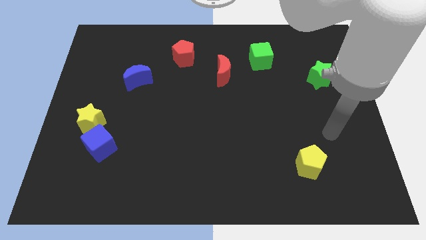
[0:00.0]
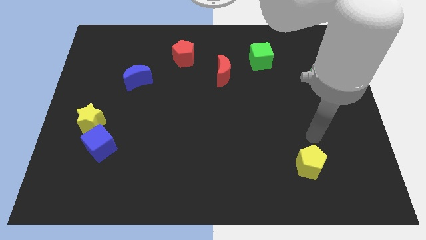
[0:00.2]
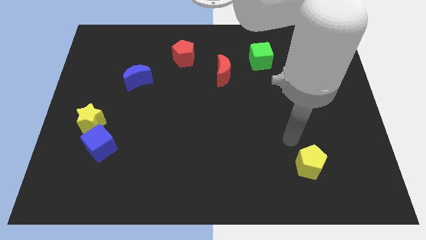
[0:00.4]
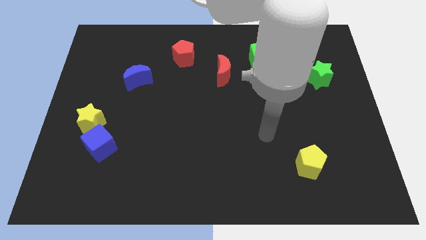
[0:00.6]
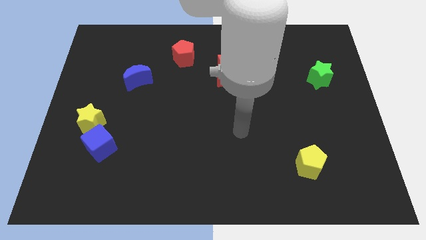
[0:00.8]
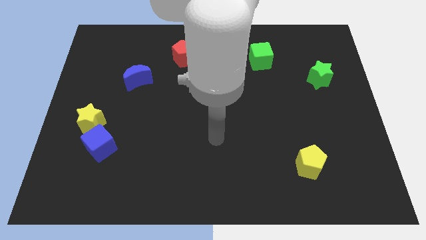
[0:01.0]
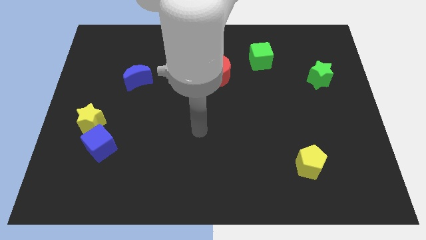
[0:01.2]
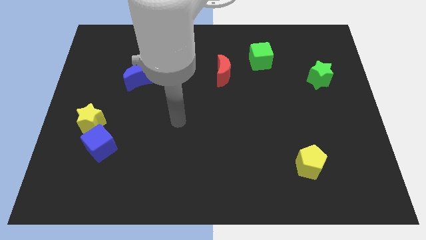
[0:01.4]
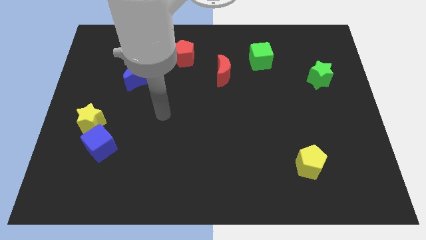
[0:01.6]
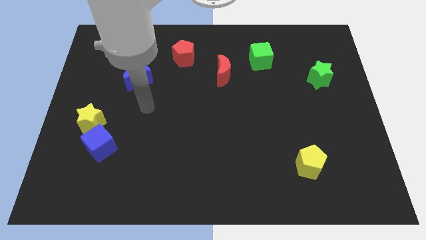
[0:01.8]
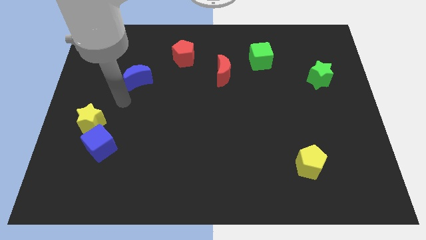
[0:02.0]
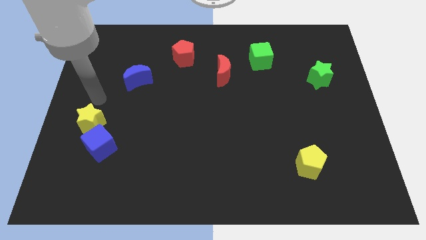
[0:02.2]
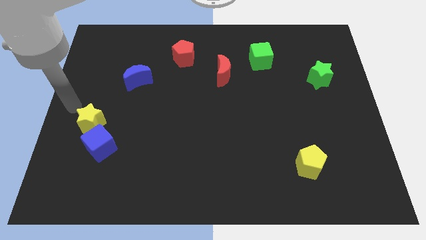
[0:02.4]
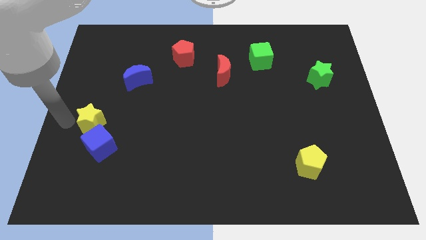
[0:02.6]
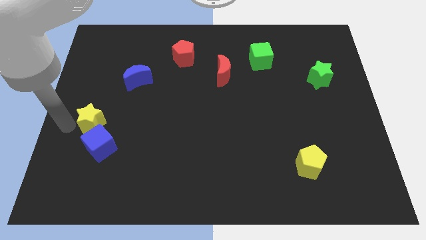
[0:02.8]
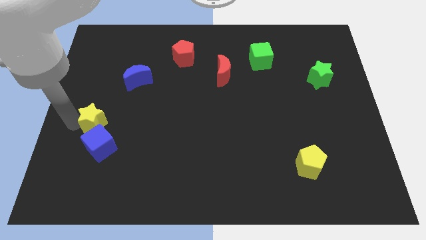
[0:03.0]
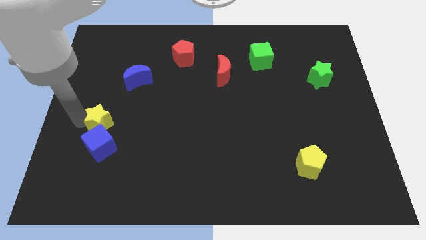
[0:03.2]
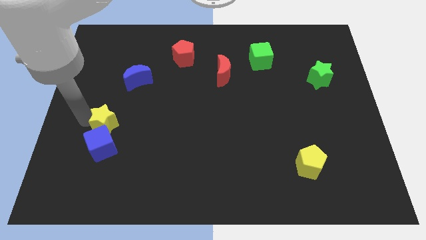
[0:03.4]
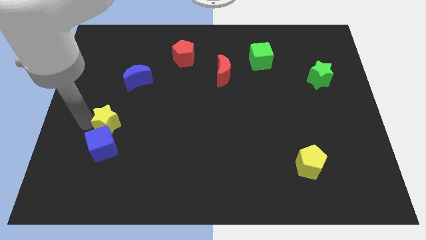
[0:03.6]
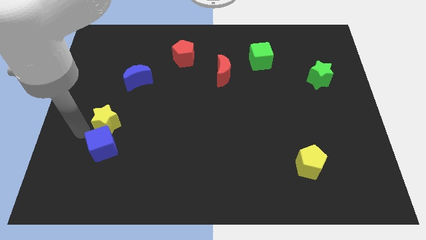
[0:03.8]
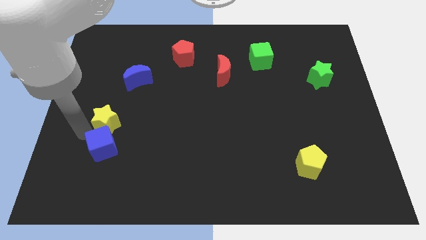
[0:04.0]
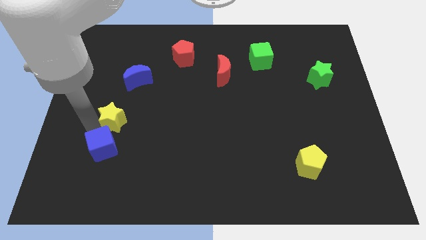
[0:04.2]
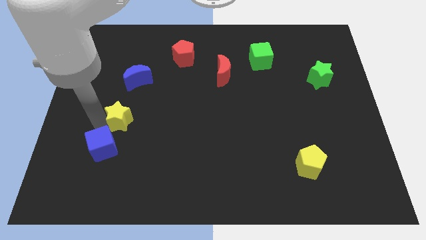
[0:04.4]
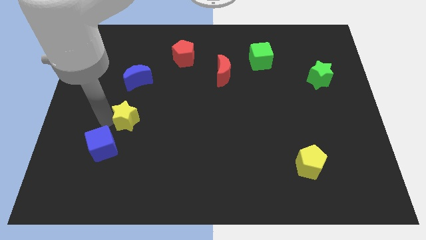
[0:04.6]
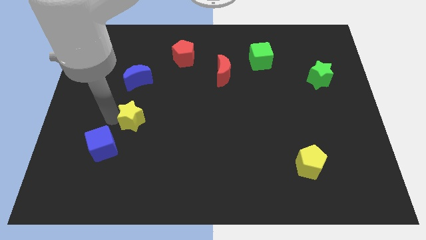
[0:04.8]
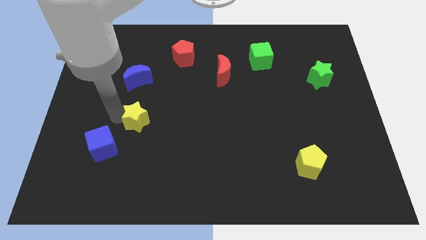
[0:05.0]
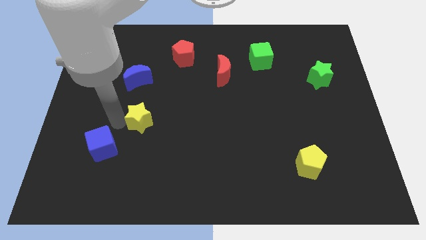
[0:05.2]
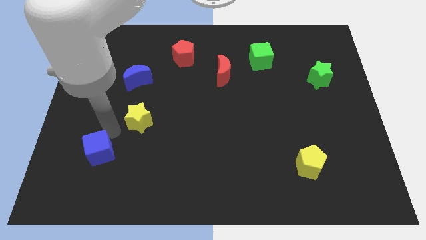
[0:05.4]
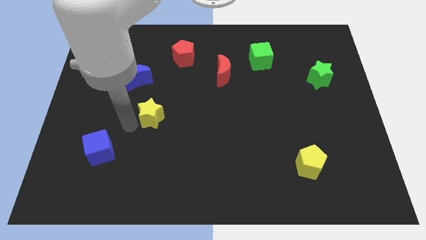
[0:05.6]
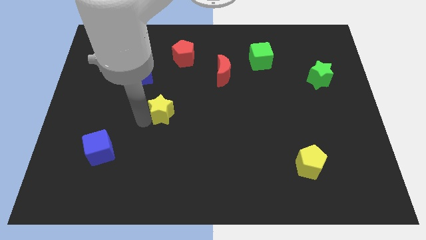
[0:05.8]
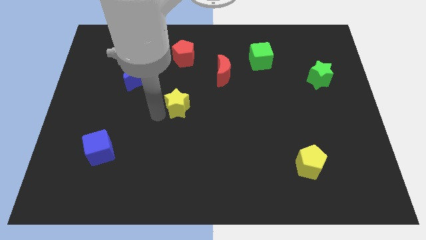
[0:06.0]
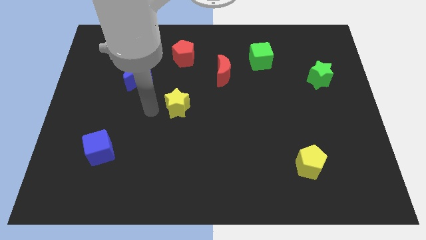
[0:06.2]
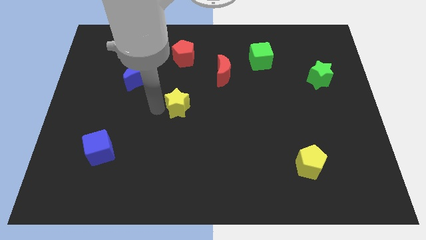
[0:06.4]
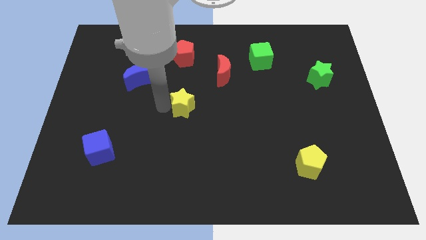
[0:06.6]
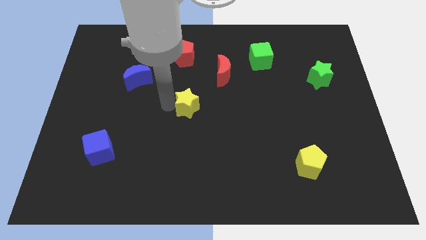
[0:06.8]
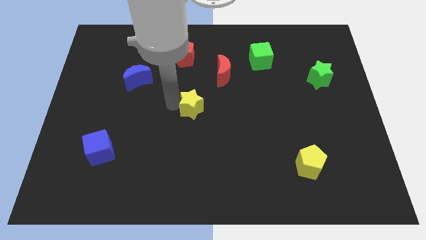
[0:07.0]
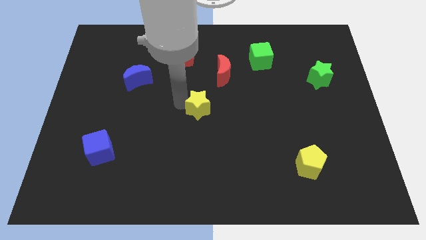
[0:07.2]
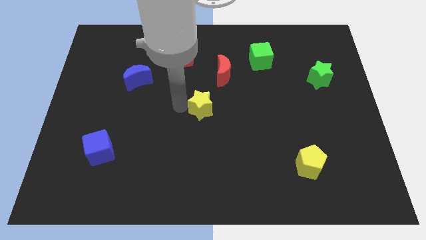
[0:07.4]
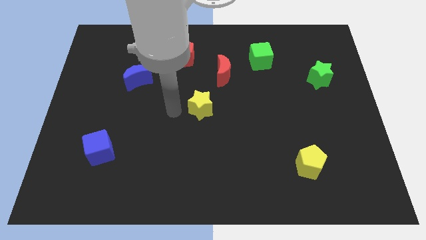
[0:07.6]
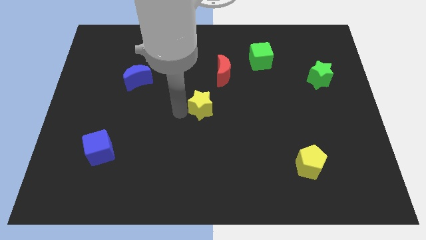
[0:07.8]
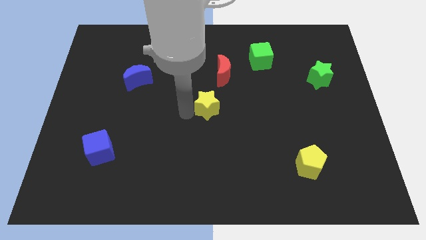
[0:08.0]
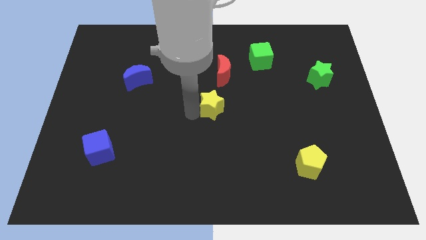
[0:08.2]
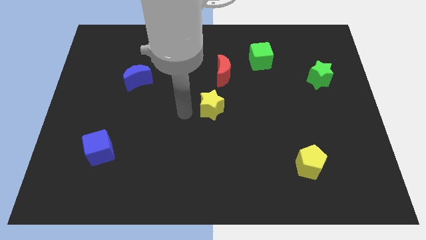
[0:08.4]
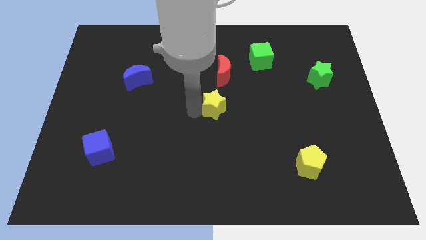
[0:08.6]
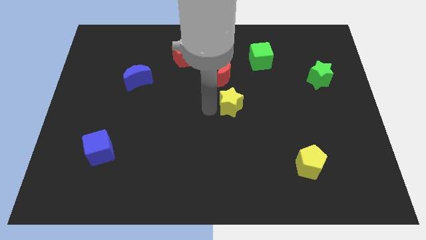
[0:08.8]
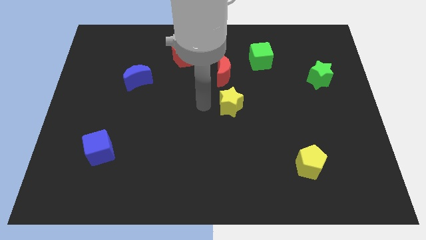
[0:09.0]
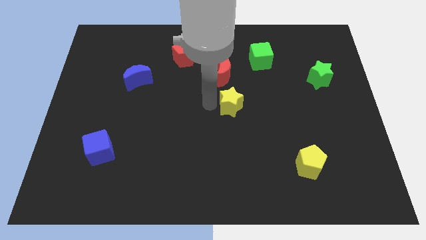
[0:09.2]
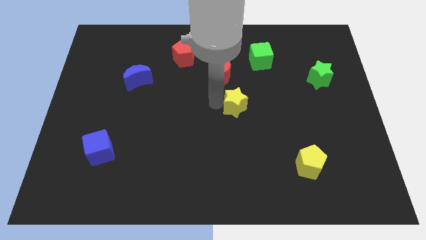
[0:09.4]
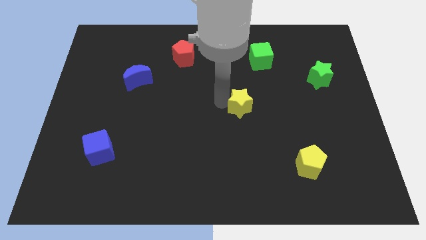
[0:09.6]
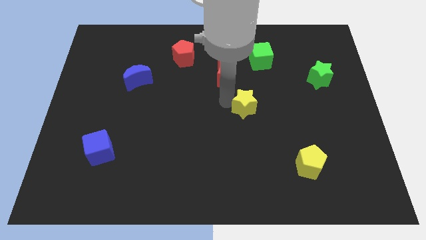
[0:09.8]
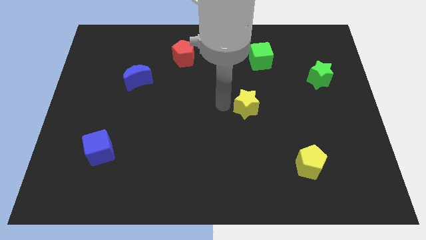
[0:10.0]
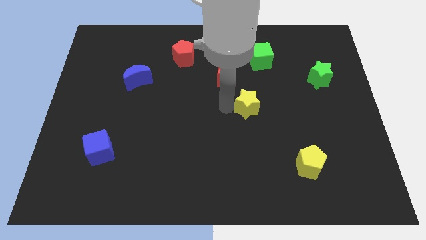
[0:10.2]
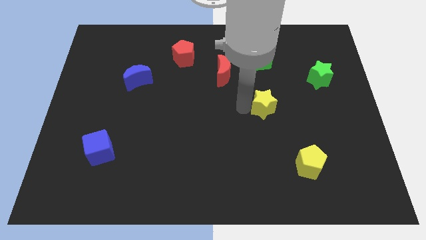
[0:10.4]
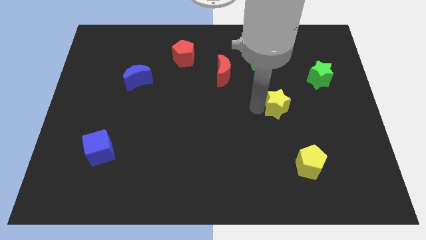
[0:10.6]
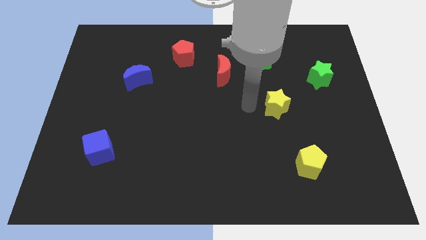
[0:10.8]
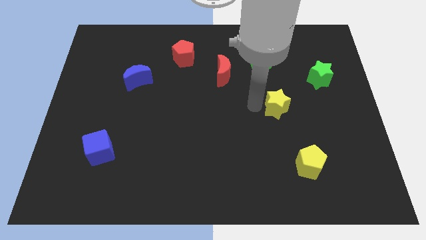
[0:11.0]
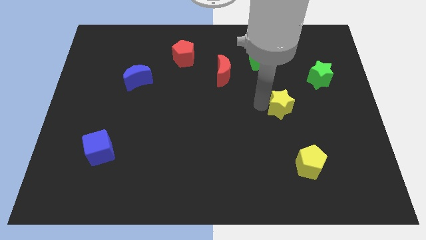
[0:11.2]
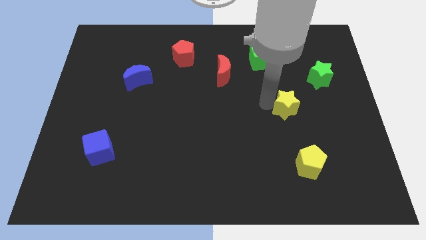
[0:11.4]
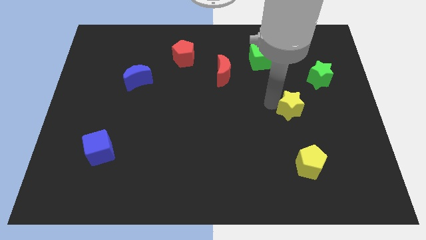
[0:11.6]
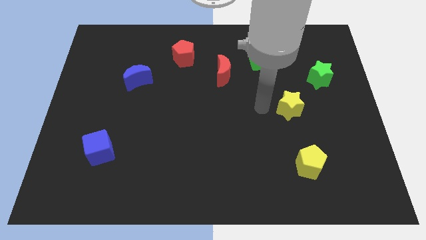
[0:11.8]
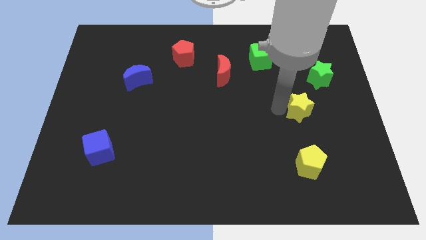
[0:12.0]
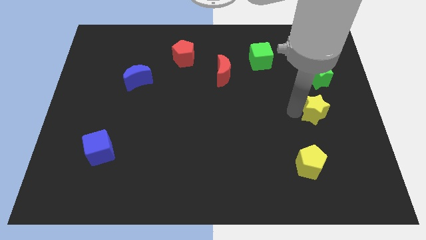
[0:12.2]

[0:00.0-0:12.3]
move the yellow star to the bottom side of the green star

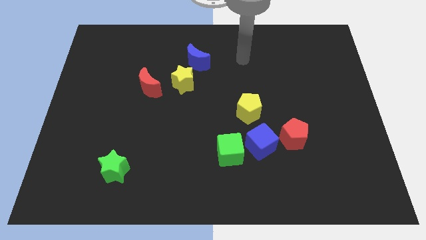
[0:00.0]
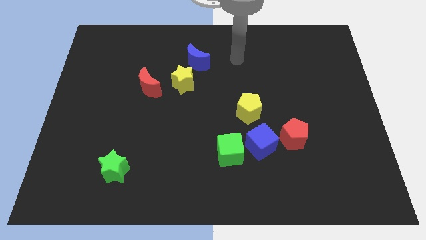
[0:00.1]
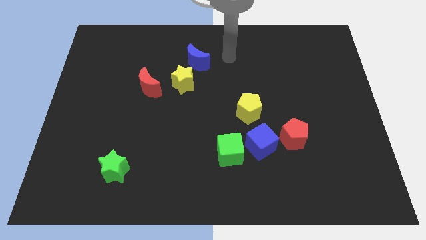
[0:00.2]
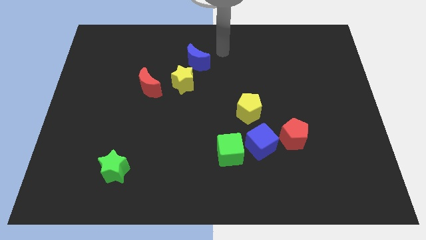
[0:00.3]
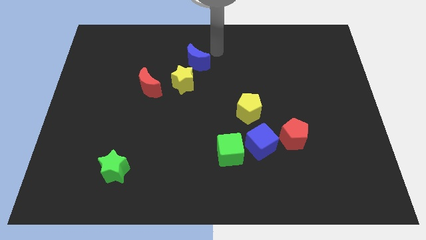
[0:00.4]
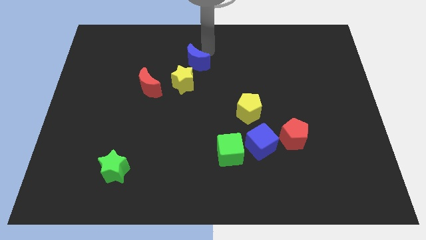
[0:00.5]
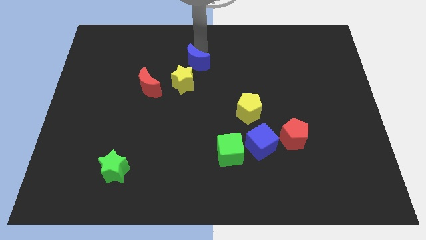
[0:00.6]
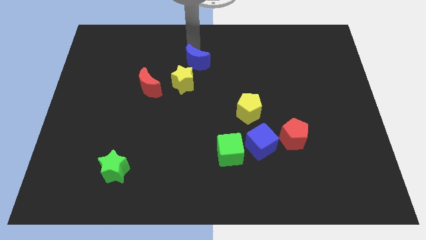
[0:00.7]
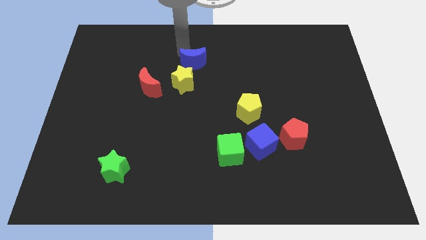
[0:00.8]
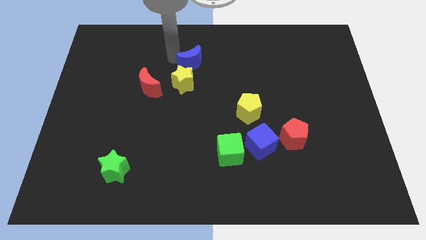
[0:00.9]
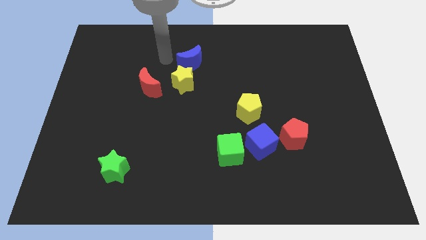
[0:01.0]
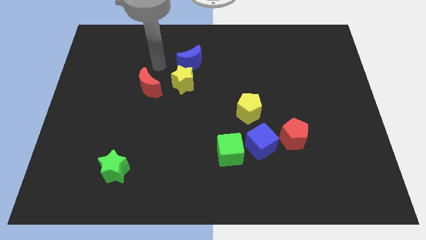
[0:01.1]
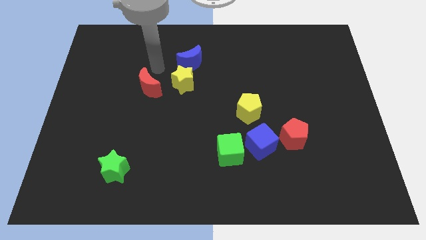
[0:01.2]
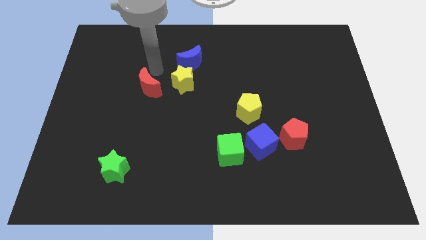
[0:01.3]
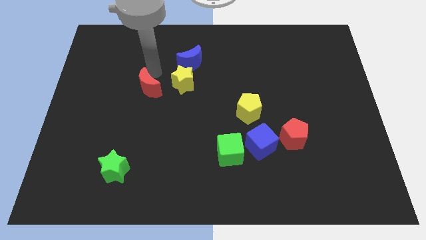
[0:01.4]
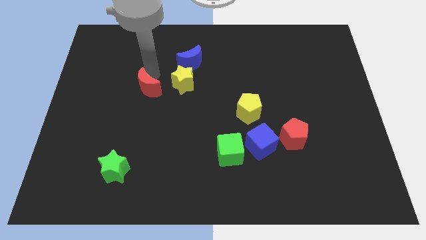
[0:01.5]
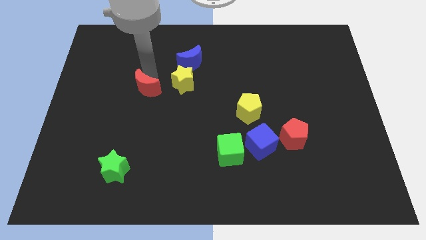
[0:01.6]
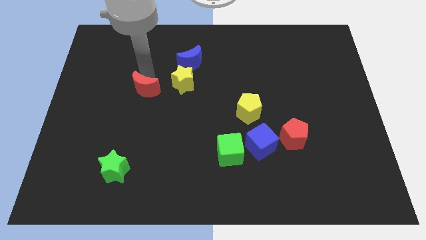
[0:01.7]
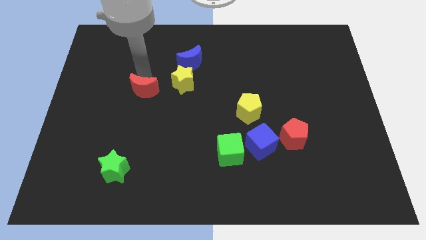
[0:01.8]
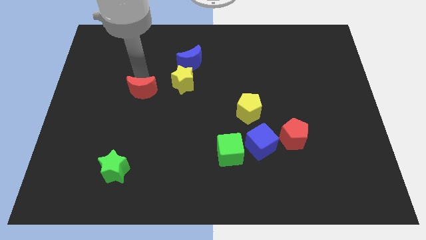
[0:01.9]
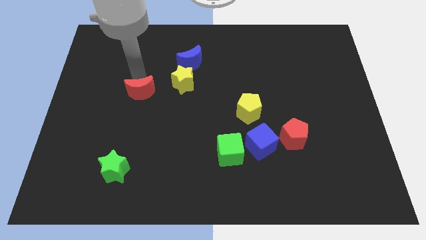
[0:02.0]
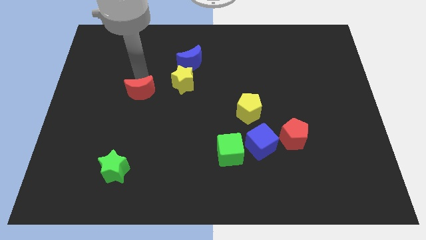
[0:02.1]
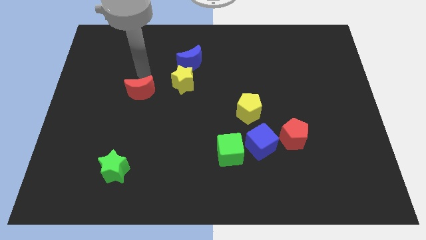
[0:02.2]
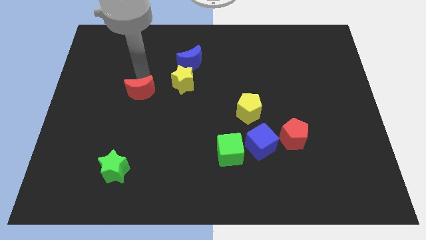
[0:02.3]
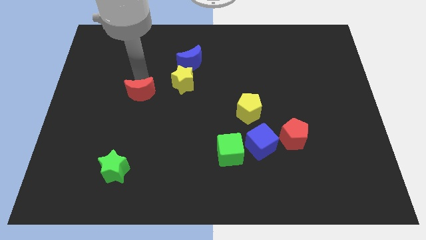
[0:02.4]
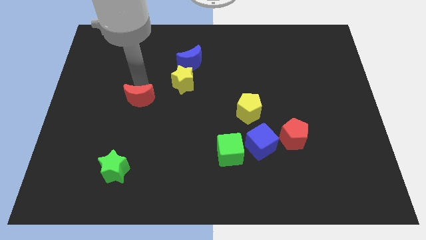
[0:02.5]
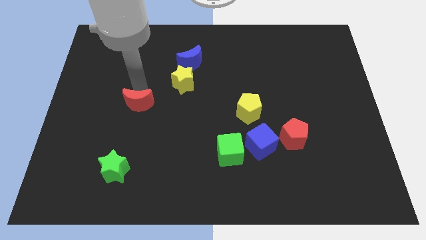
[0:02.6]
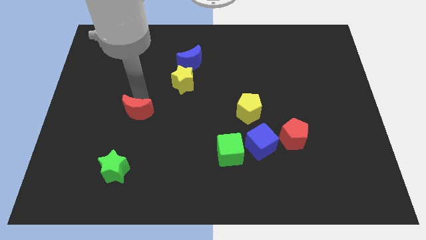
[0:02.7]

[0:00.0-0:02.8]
move the red moon to the top of the green star
